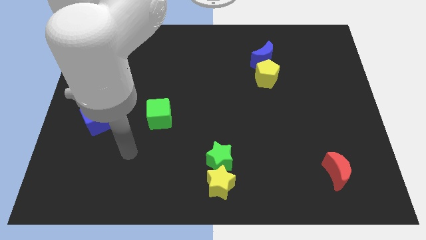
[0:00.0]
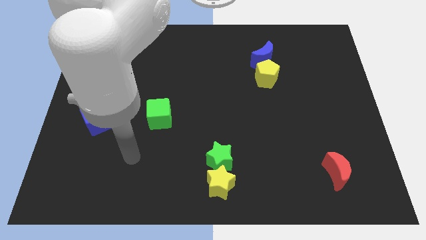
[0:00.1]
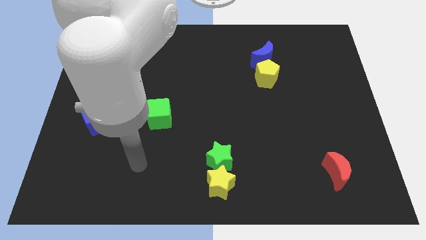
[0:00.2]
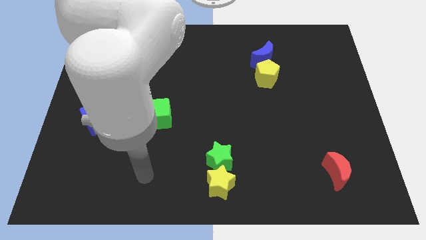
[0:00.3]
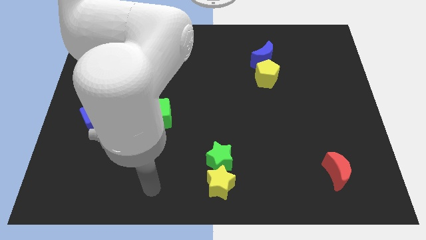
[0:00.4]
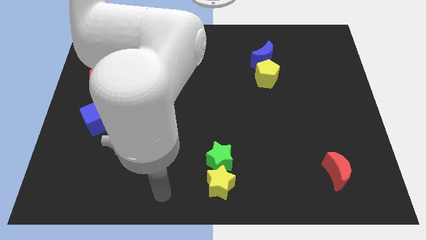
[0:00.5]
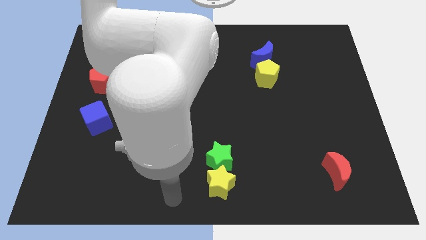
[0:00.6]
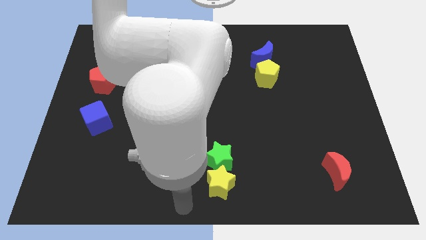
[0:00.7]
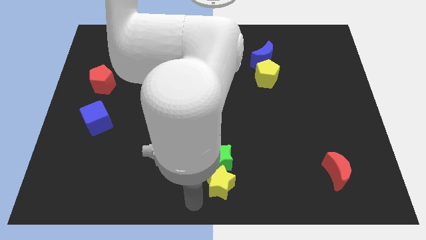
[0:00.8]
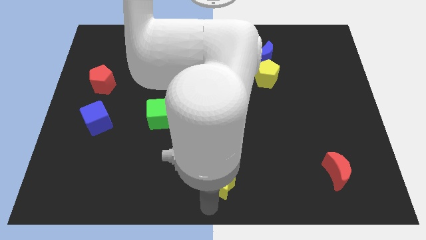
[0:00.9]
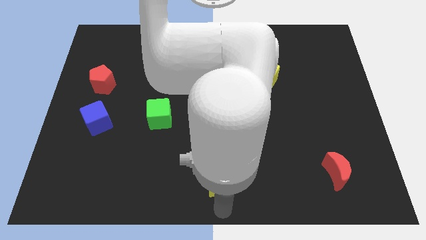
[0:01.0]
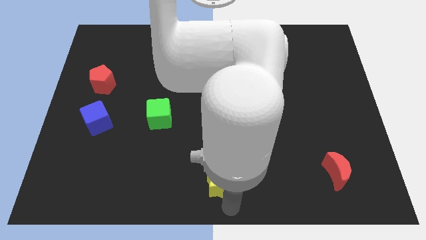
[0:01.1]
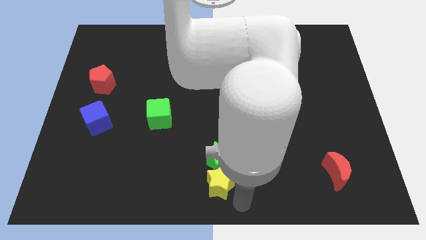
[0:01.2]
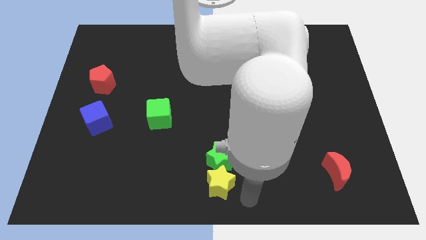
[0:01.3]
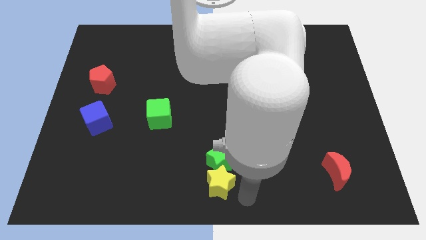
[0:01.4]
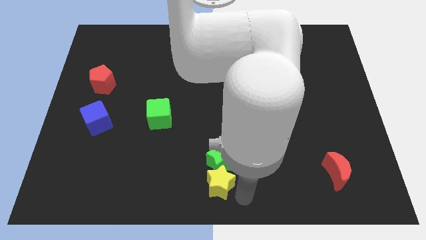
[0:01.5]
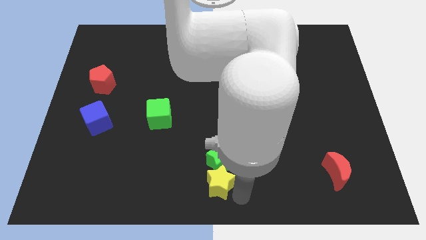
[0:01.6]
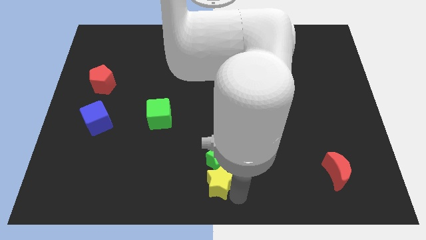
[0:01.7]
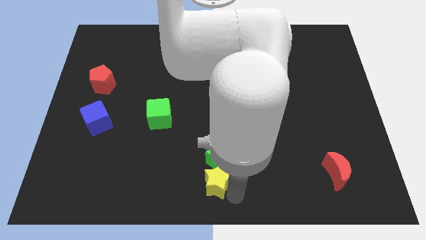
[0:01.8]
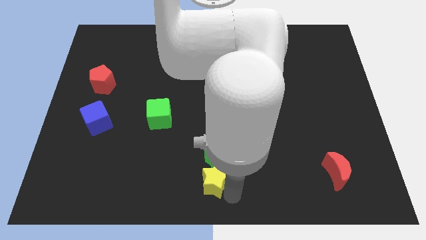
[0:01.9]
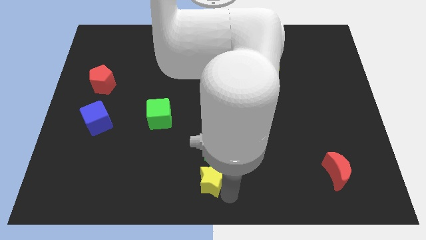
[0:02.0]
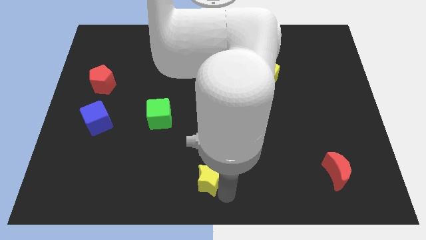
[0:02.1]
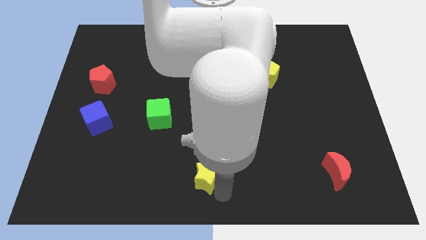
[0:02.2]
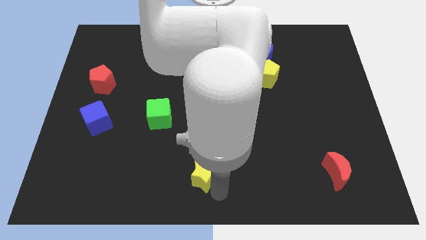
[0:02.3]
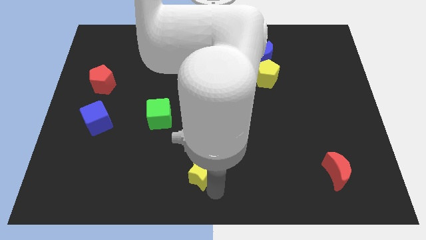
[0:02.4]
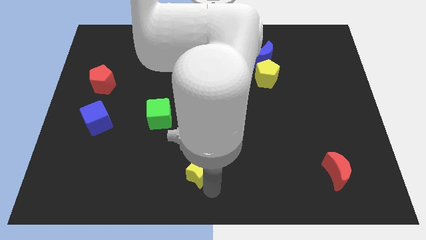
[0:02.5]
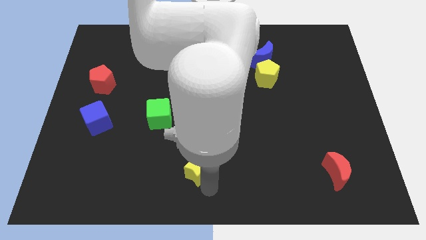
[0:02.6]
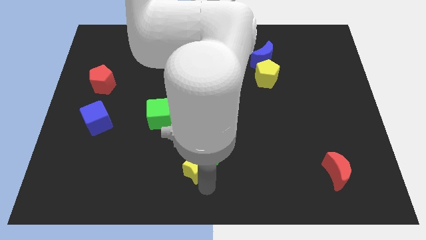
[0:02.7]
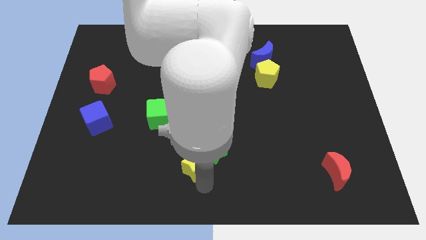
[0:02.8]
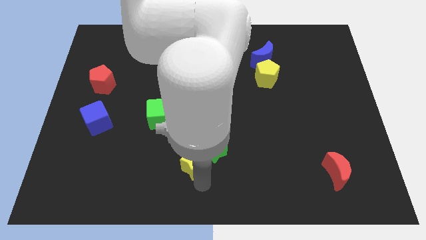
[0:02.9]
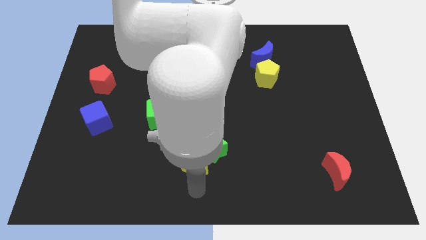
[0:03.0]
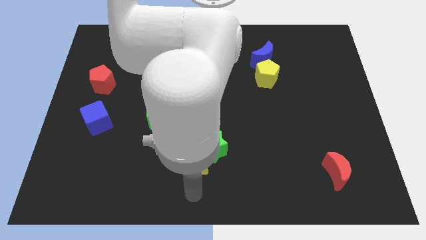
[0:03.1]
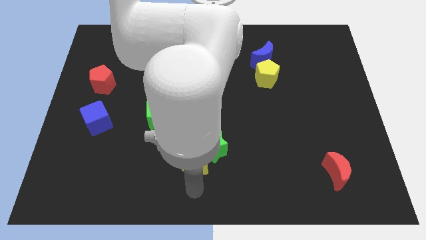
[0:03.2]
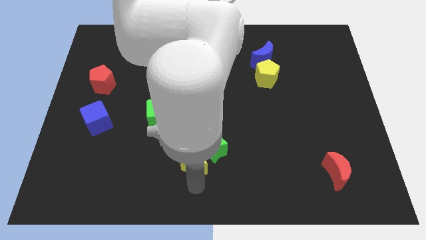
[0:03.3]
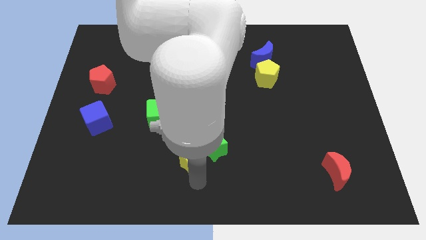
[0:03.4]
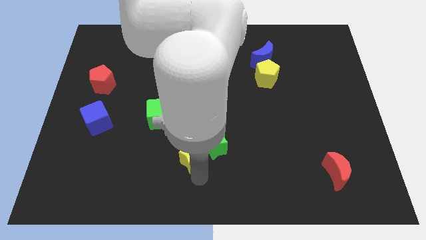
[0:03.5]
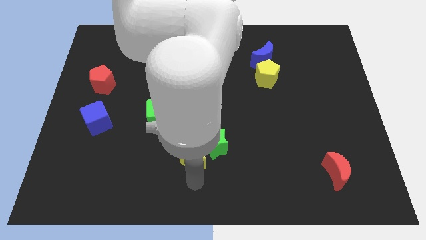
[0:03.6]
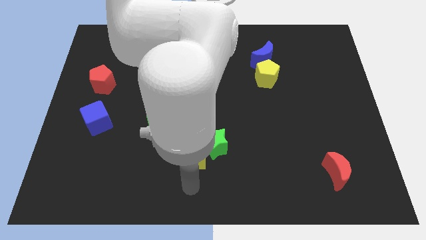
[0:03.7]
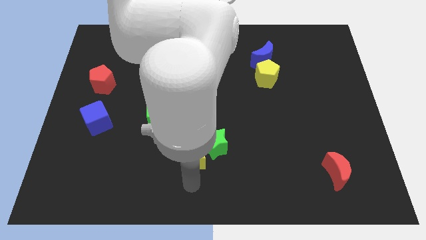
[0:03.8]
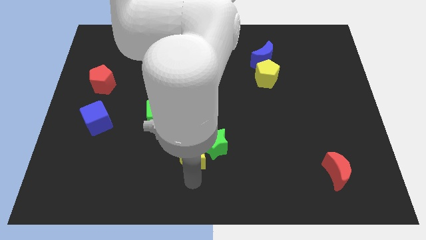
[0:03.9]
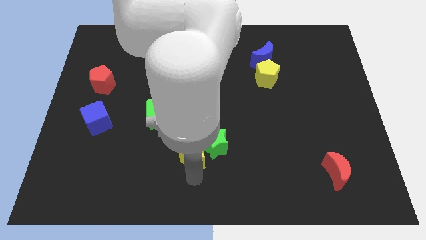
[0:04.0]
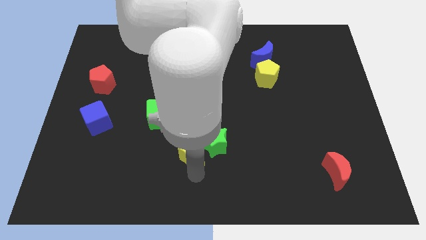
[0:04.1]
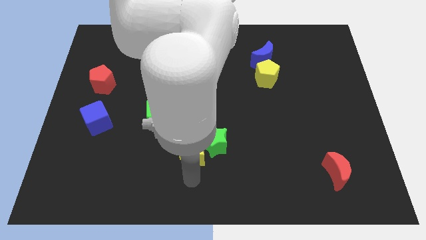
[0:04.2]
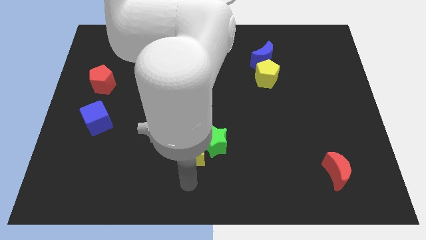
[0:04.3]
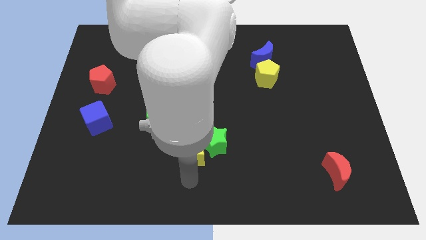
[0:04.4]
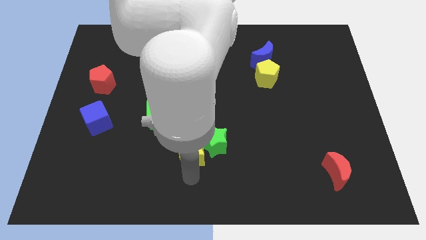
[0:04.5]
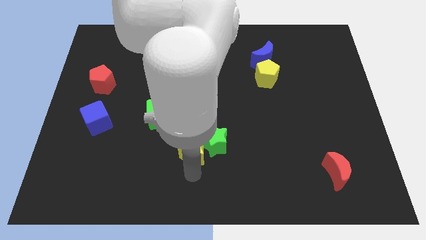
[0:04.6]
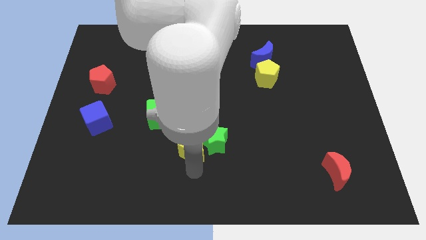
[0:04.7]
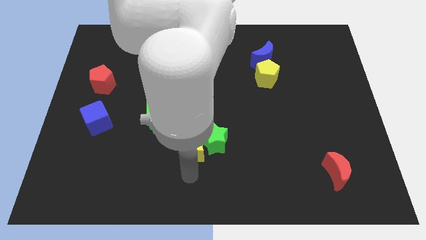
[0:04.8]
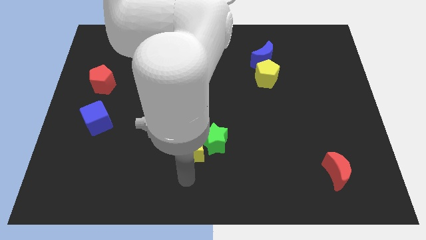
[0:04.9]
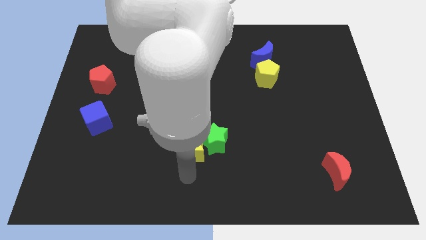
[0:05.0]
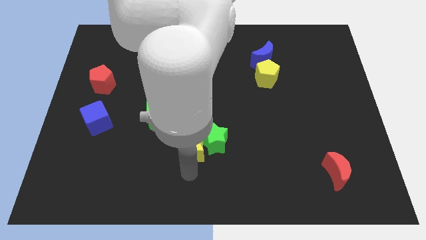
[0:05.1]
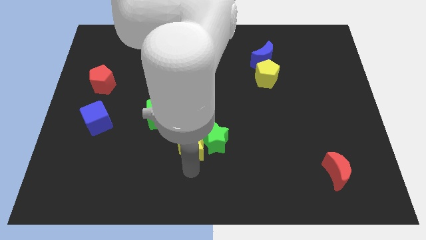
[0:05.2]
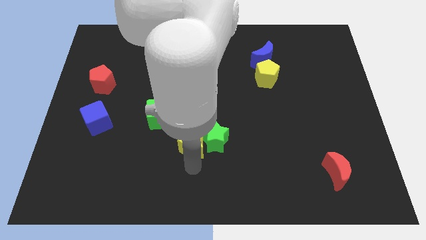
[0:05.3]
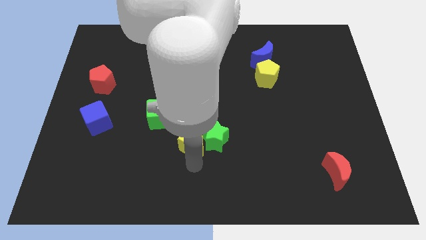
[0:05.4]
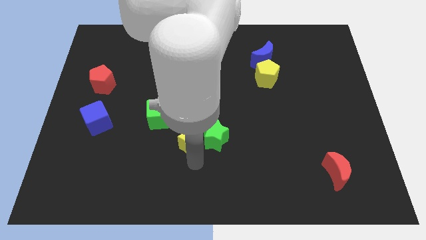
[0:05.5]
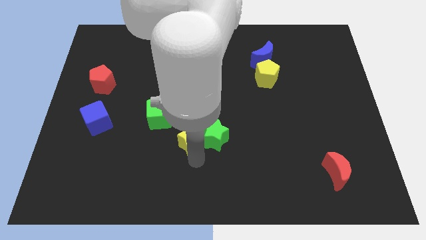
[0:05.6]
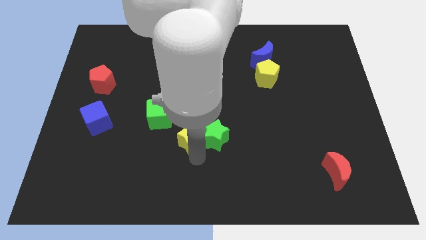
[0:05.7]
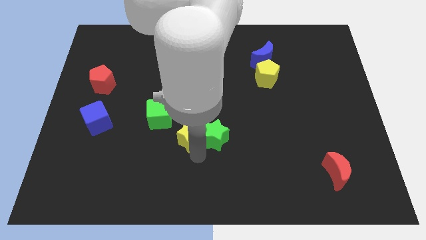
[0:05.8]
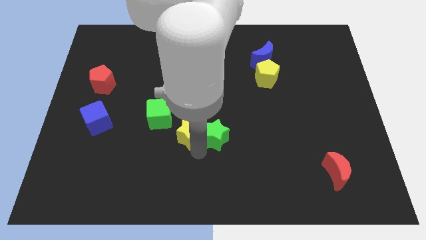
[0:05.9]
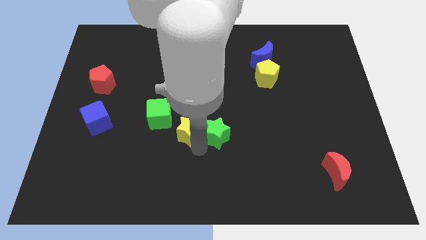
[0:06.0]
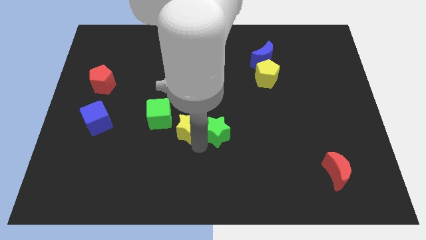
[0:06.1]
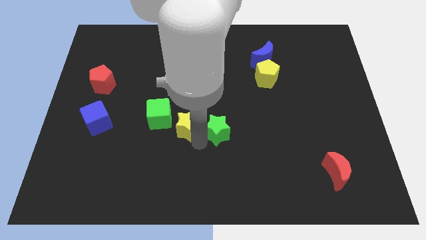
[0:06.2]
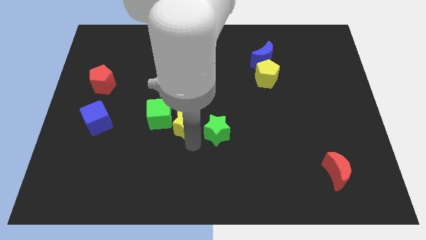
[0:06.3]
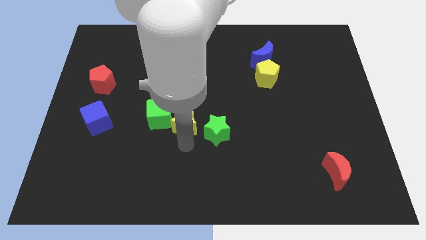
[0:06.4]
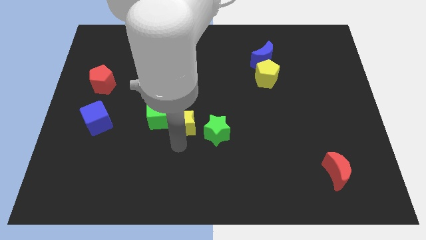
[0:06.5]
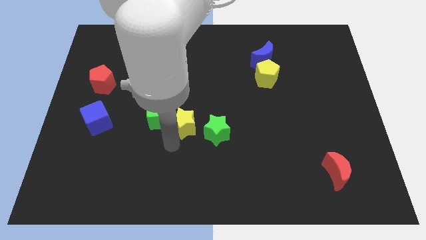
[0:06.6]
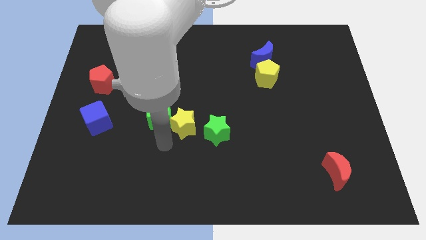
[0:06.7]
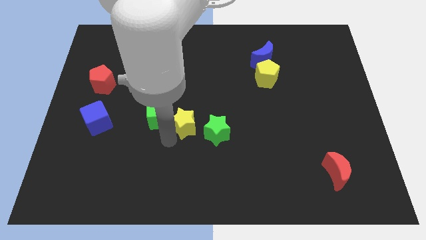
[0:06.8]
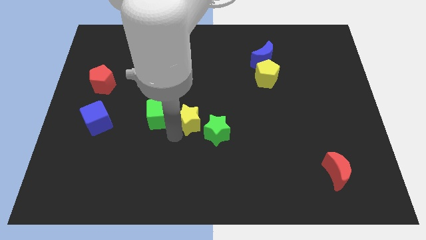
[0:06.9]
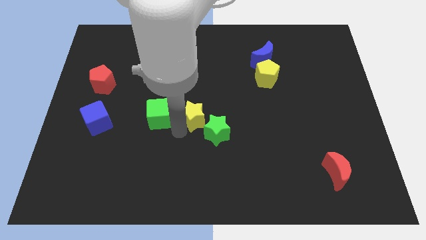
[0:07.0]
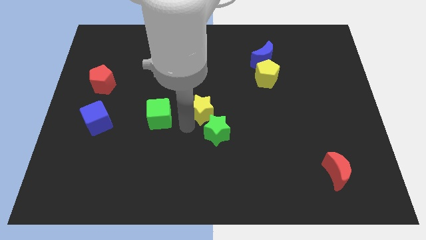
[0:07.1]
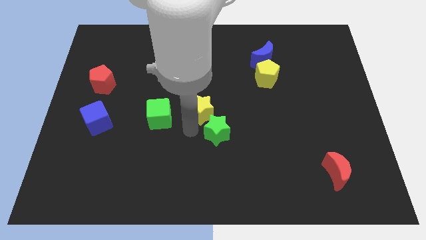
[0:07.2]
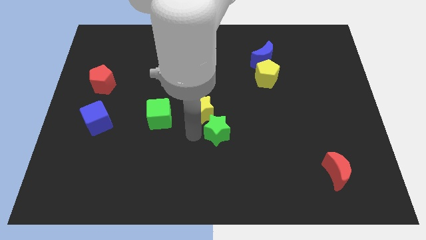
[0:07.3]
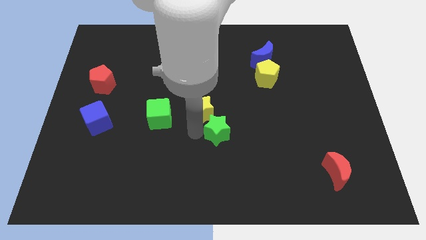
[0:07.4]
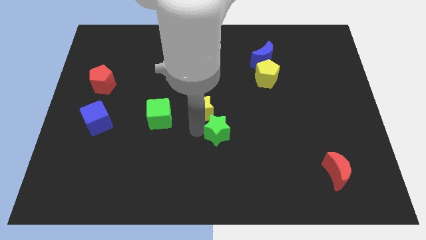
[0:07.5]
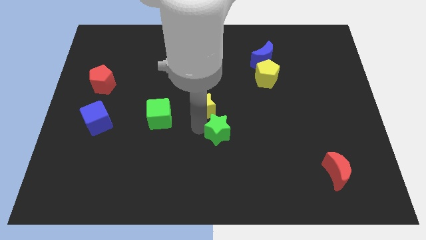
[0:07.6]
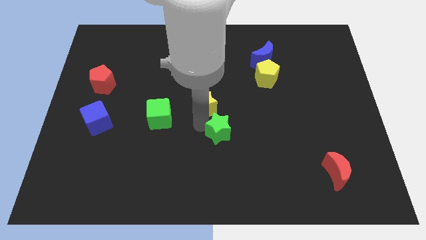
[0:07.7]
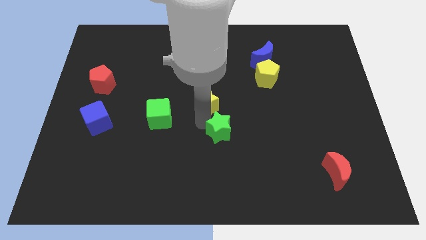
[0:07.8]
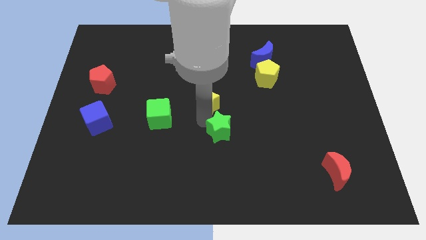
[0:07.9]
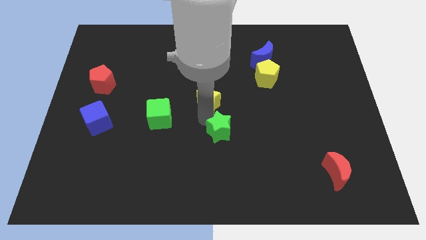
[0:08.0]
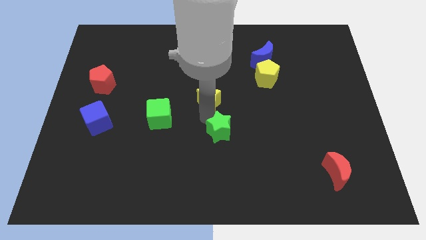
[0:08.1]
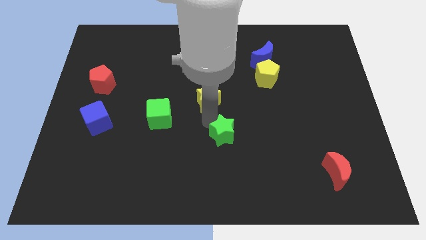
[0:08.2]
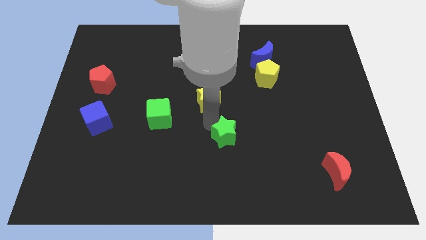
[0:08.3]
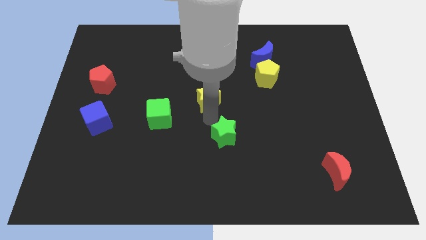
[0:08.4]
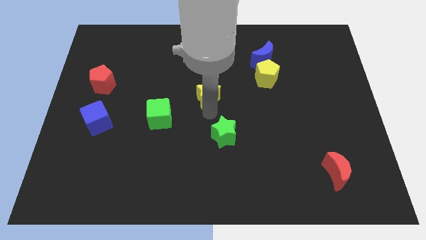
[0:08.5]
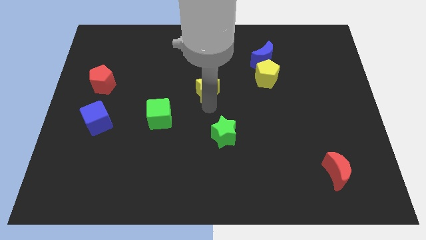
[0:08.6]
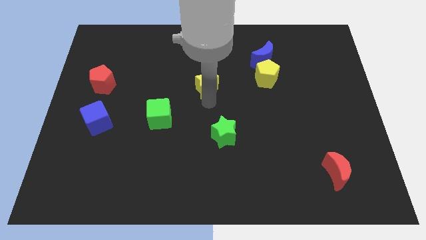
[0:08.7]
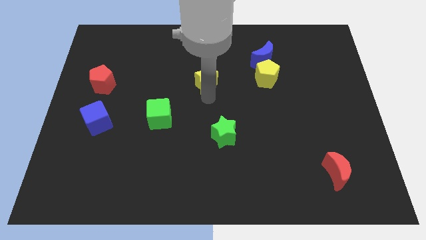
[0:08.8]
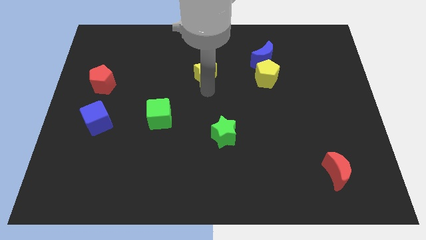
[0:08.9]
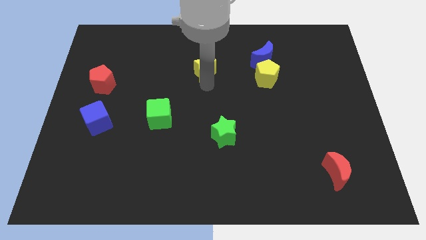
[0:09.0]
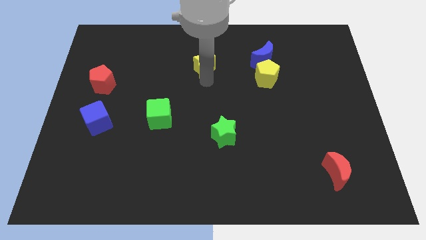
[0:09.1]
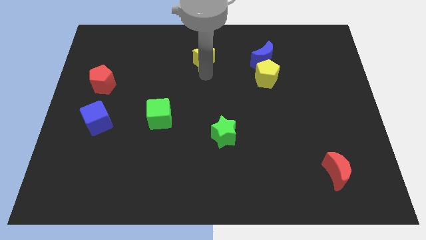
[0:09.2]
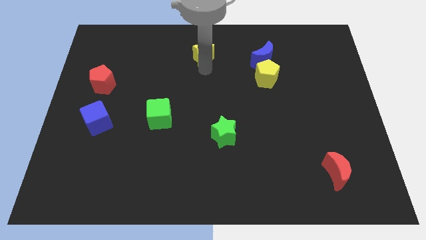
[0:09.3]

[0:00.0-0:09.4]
push the yellow star to the top
